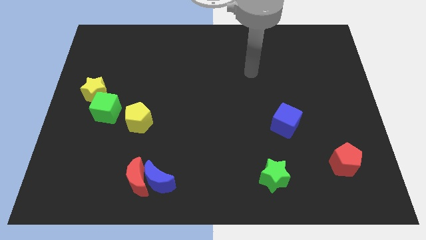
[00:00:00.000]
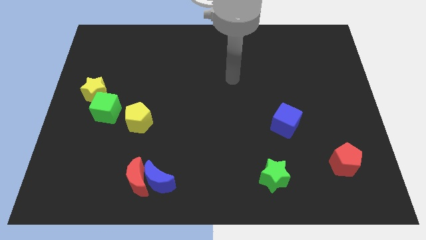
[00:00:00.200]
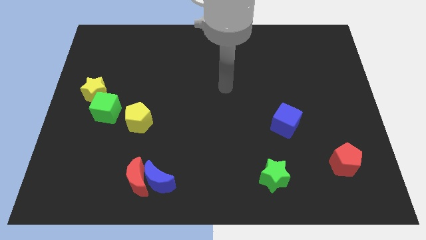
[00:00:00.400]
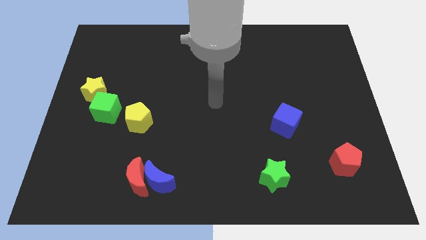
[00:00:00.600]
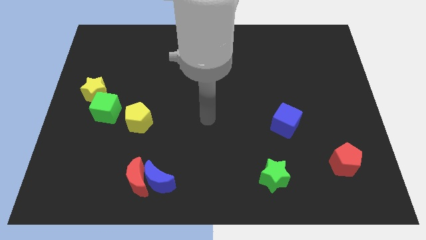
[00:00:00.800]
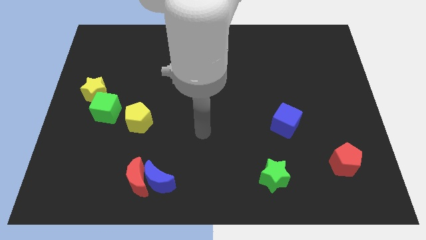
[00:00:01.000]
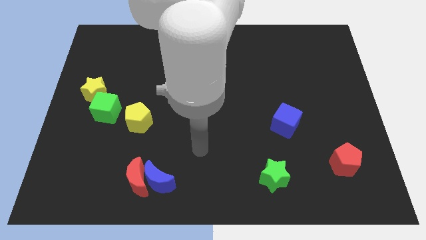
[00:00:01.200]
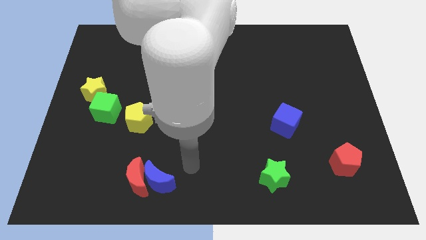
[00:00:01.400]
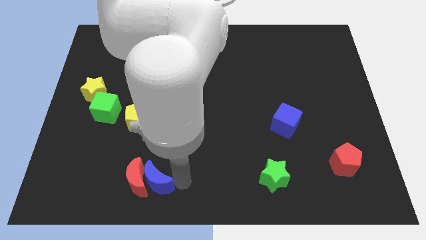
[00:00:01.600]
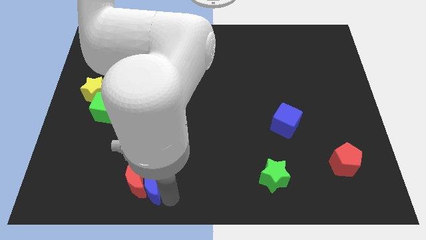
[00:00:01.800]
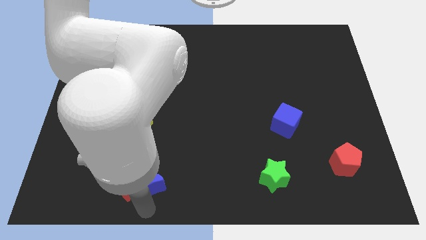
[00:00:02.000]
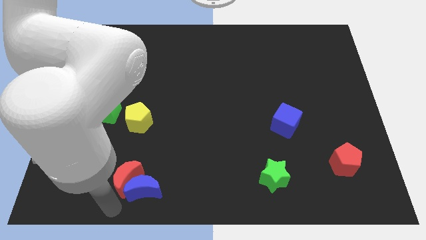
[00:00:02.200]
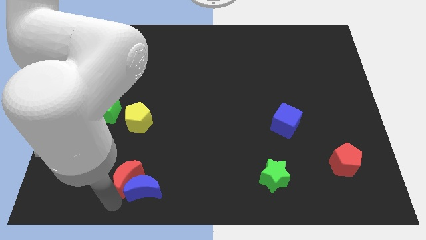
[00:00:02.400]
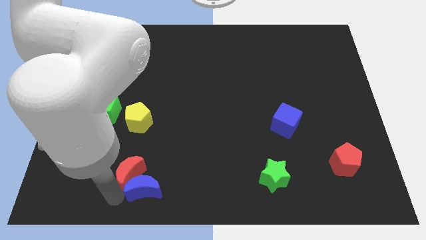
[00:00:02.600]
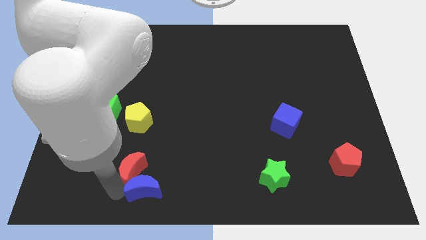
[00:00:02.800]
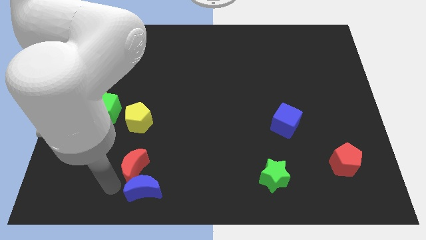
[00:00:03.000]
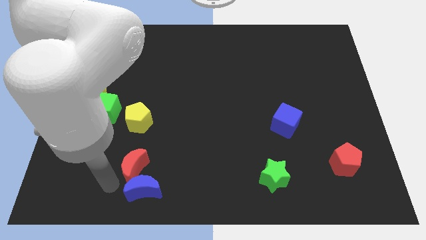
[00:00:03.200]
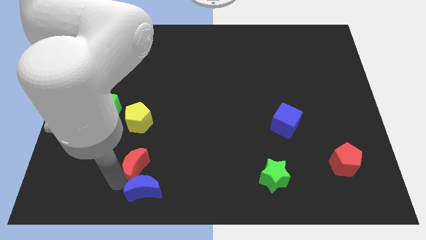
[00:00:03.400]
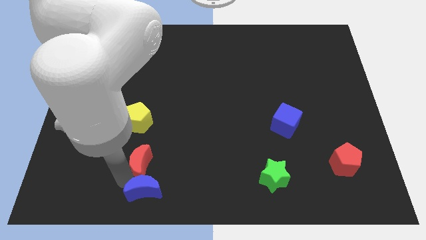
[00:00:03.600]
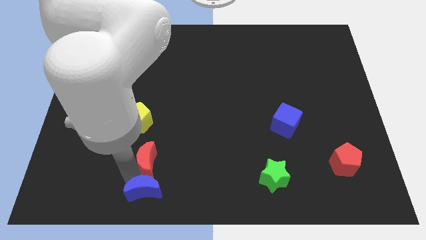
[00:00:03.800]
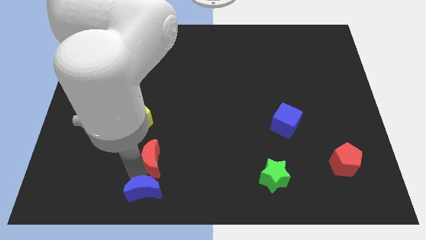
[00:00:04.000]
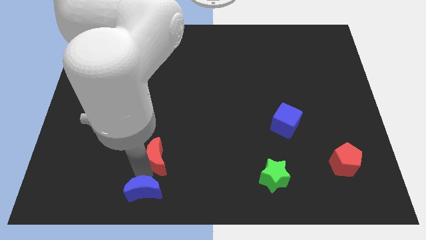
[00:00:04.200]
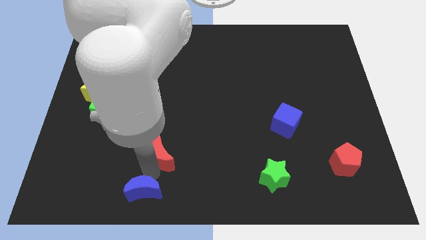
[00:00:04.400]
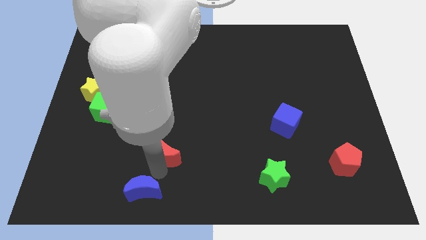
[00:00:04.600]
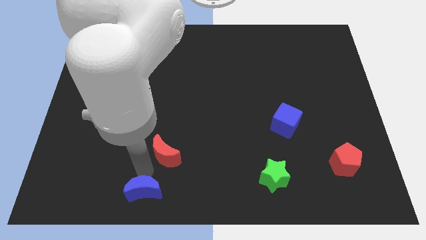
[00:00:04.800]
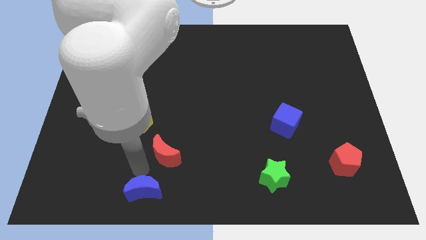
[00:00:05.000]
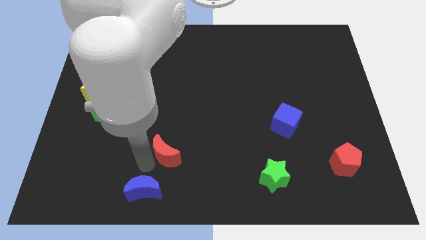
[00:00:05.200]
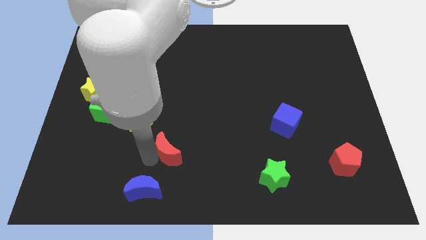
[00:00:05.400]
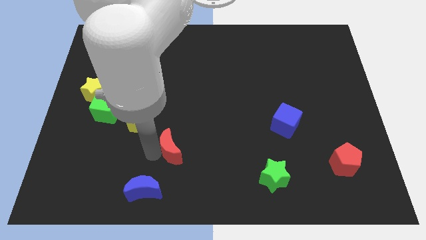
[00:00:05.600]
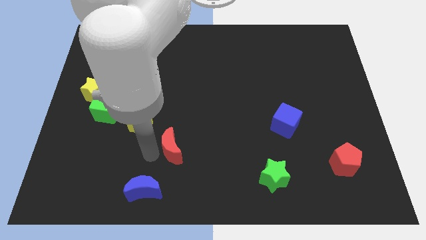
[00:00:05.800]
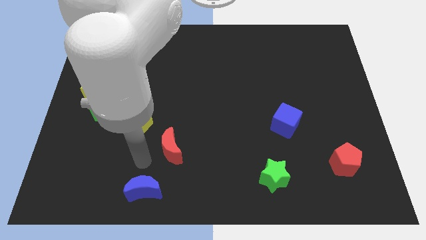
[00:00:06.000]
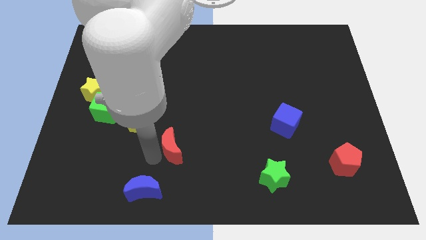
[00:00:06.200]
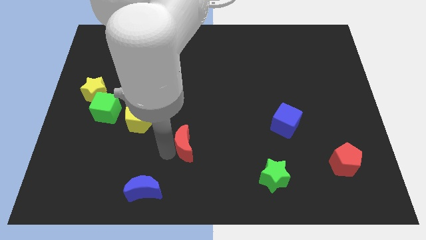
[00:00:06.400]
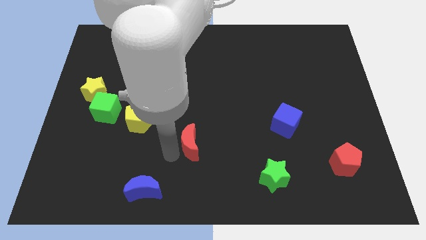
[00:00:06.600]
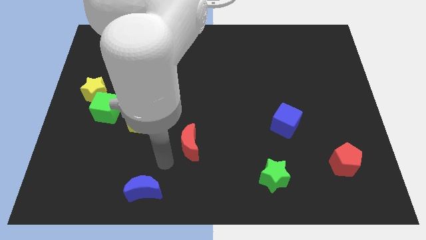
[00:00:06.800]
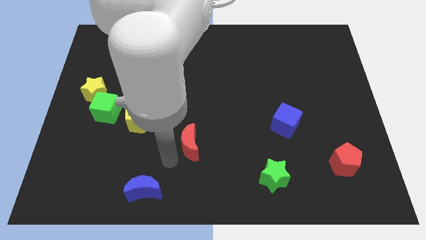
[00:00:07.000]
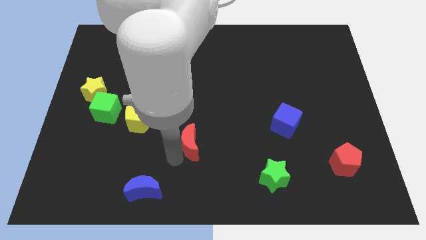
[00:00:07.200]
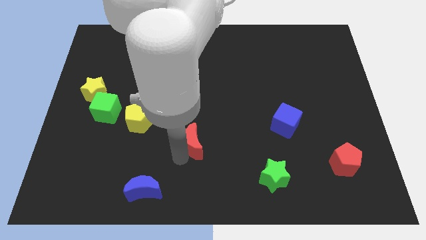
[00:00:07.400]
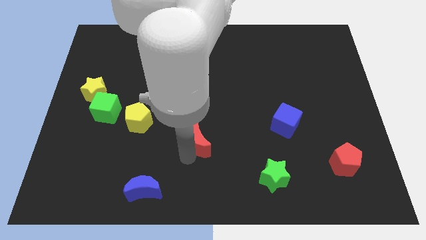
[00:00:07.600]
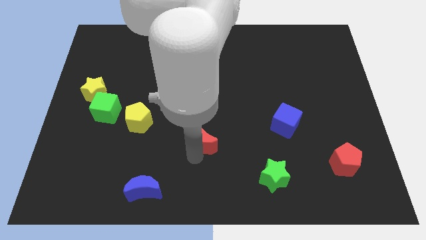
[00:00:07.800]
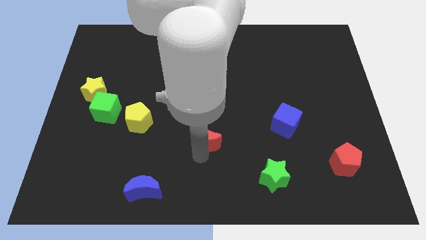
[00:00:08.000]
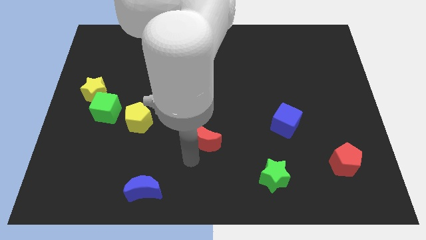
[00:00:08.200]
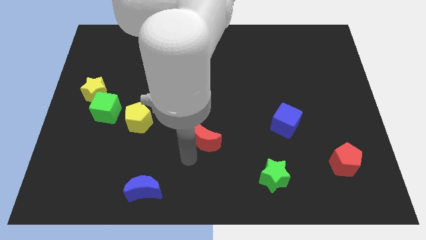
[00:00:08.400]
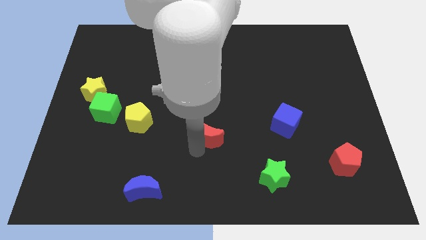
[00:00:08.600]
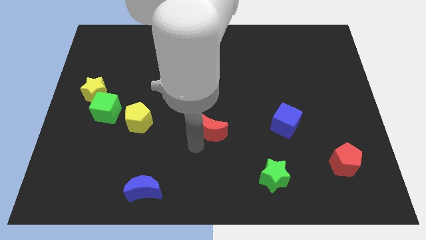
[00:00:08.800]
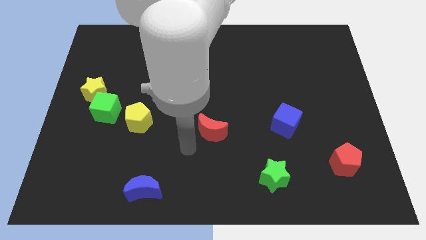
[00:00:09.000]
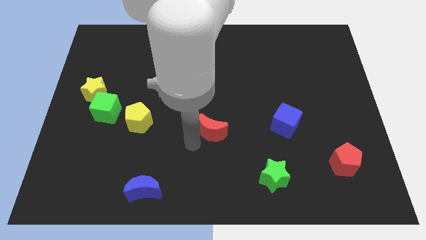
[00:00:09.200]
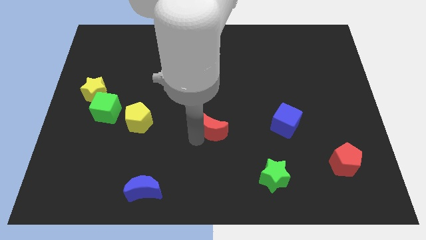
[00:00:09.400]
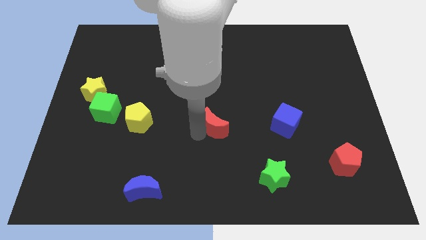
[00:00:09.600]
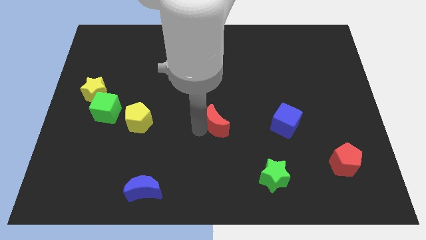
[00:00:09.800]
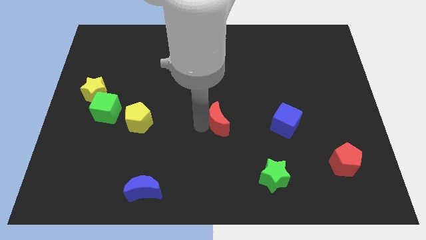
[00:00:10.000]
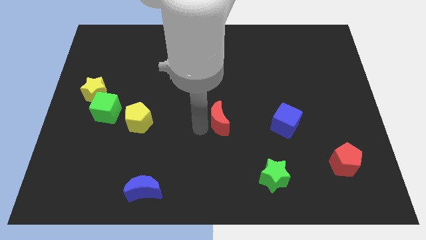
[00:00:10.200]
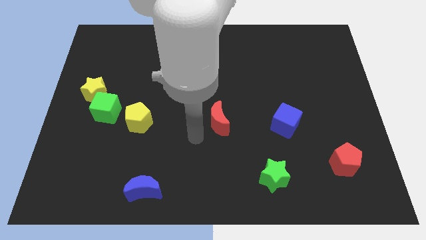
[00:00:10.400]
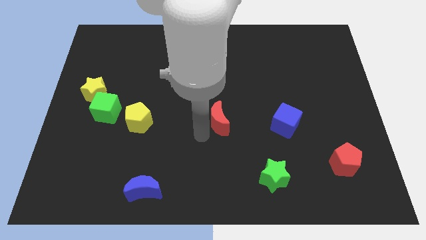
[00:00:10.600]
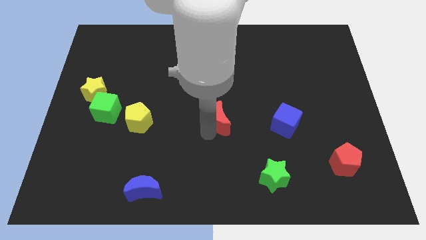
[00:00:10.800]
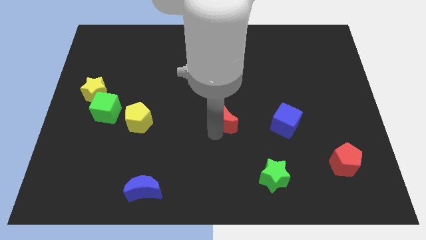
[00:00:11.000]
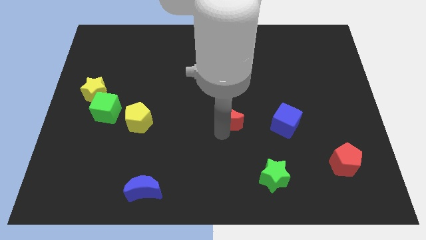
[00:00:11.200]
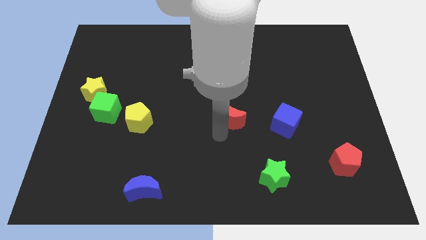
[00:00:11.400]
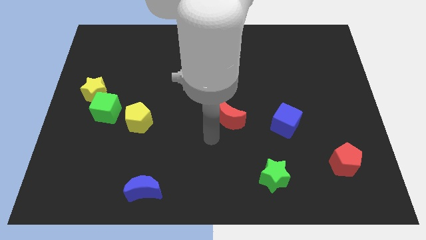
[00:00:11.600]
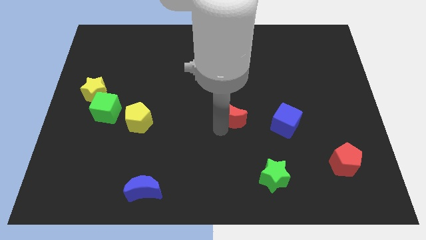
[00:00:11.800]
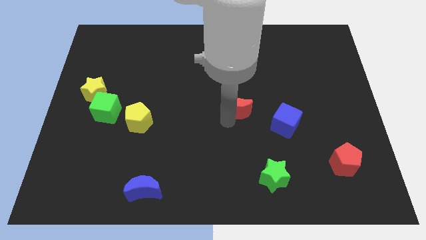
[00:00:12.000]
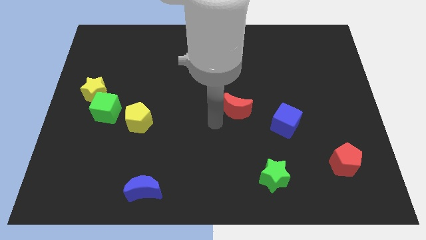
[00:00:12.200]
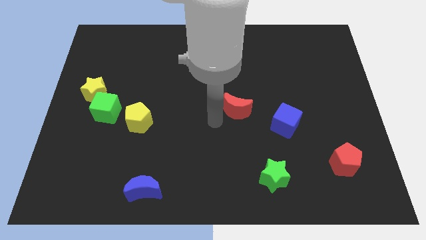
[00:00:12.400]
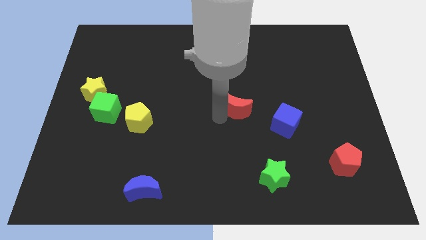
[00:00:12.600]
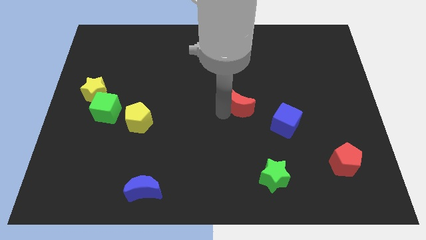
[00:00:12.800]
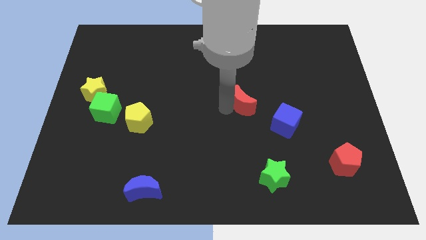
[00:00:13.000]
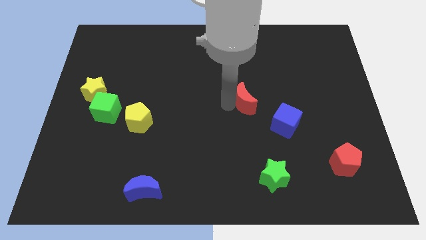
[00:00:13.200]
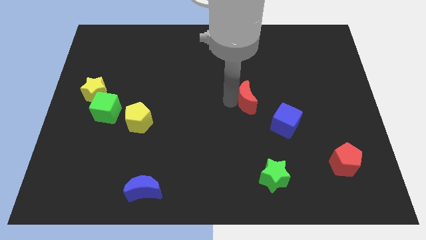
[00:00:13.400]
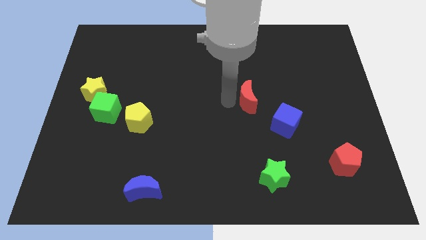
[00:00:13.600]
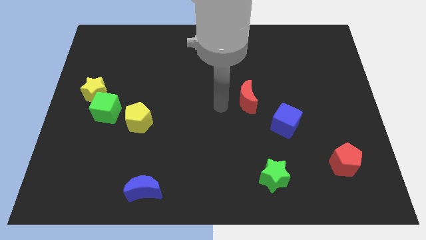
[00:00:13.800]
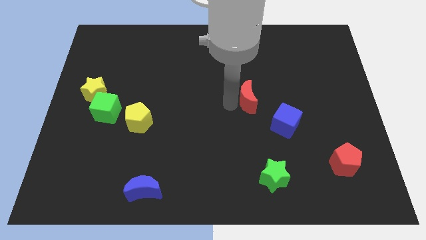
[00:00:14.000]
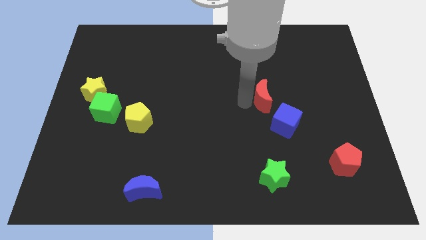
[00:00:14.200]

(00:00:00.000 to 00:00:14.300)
put the red moon to the top side of the blue cube

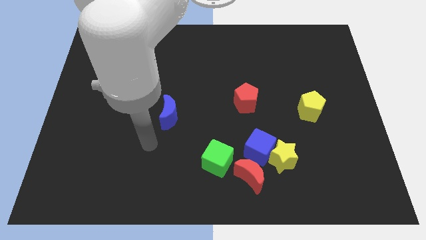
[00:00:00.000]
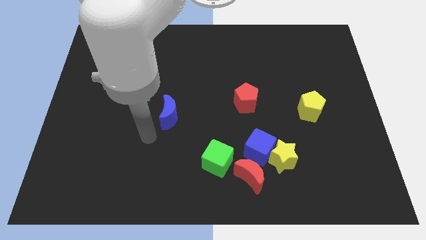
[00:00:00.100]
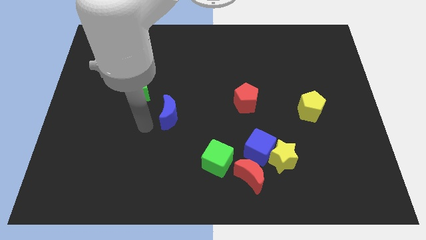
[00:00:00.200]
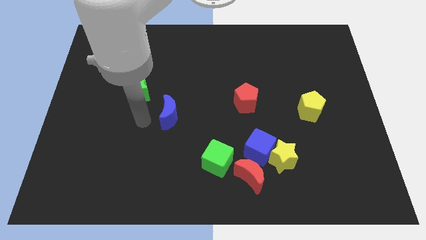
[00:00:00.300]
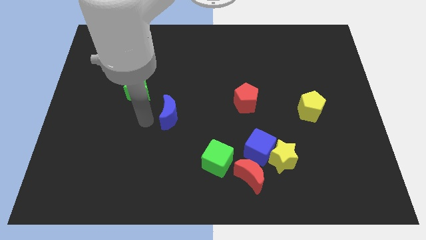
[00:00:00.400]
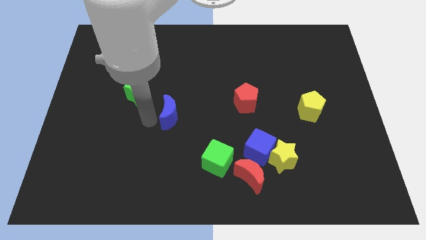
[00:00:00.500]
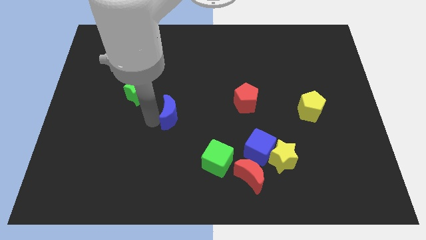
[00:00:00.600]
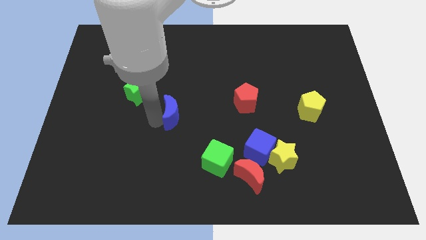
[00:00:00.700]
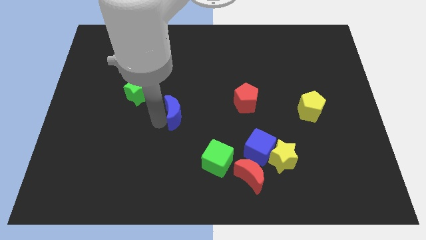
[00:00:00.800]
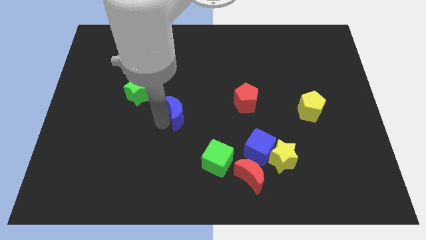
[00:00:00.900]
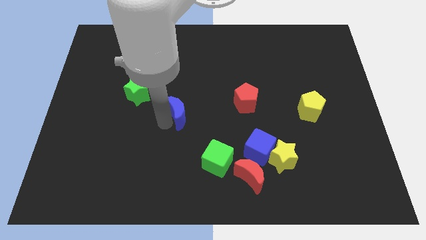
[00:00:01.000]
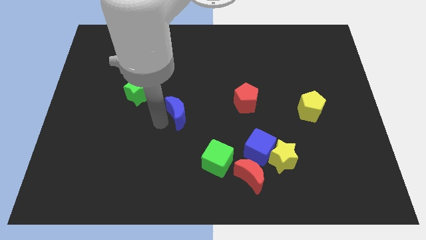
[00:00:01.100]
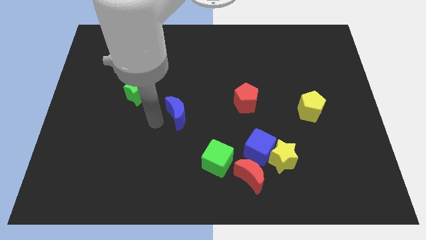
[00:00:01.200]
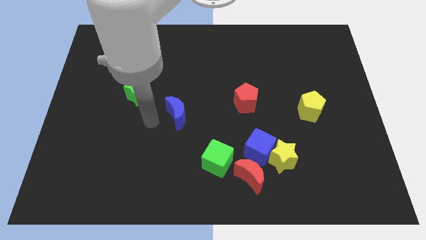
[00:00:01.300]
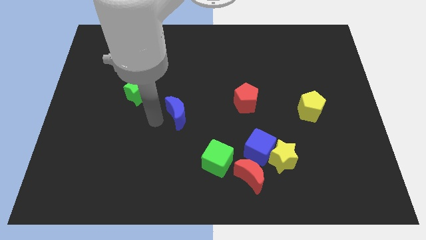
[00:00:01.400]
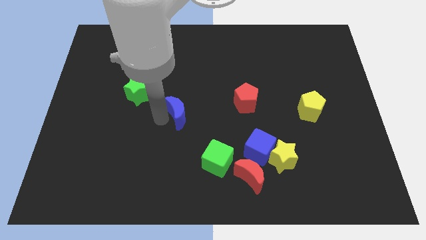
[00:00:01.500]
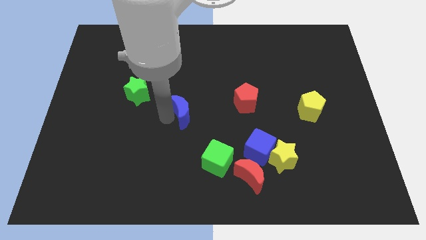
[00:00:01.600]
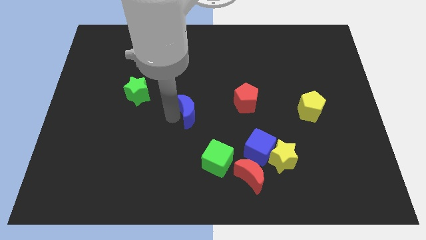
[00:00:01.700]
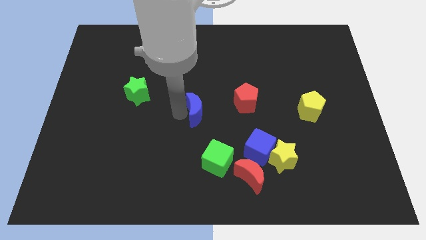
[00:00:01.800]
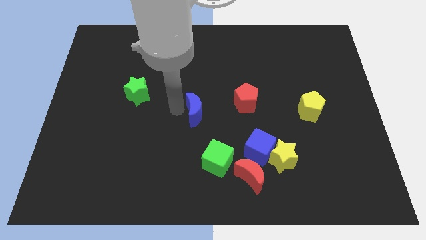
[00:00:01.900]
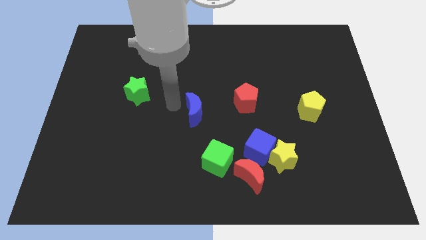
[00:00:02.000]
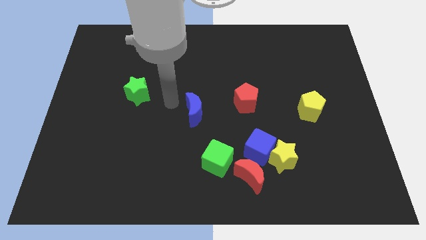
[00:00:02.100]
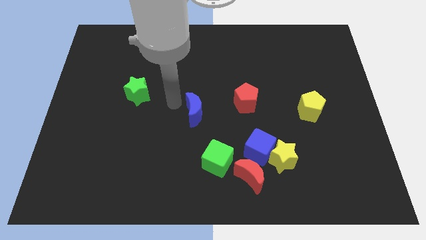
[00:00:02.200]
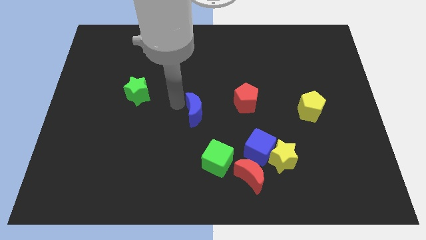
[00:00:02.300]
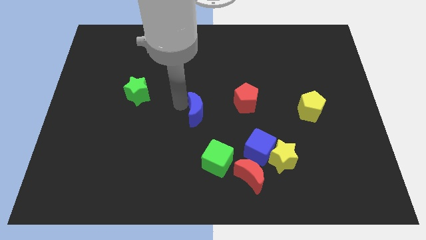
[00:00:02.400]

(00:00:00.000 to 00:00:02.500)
slide the blue moon to the top side of the green cube
